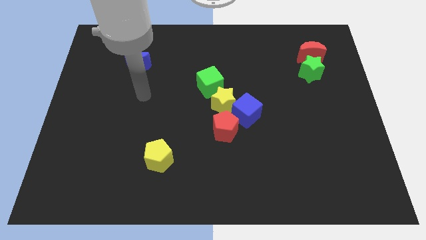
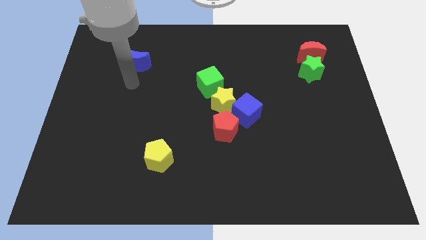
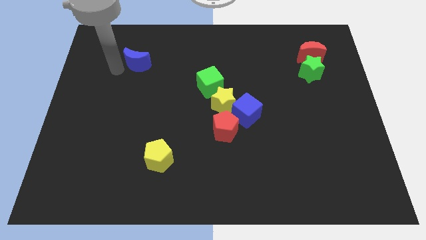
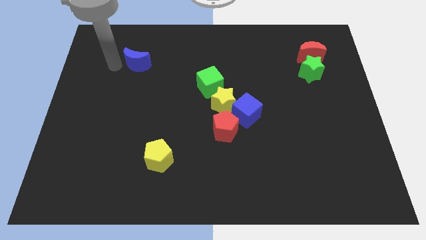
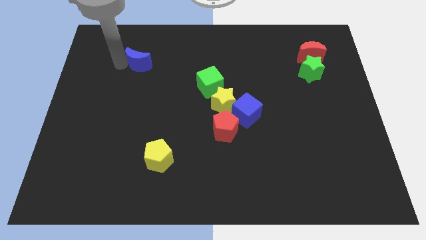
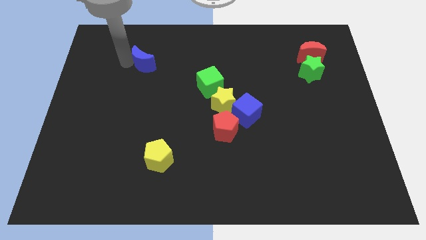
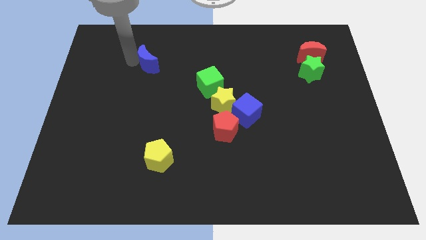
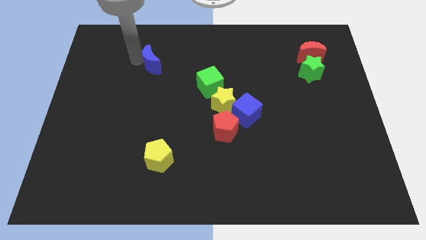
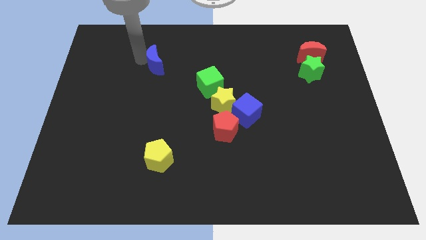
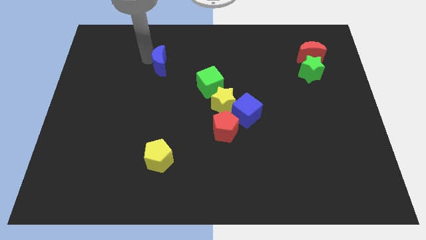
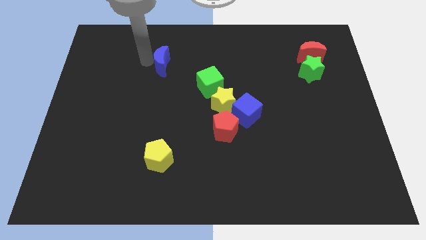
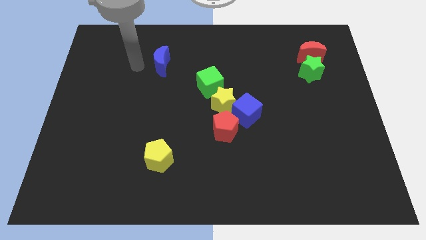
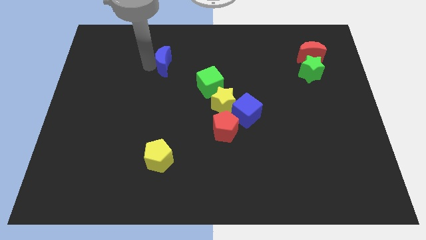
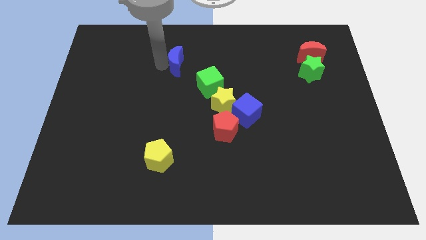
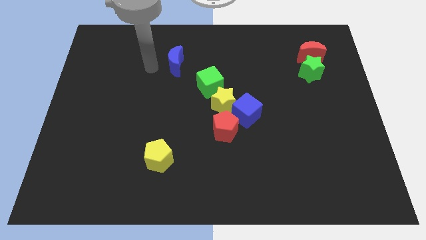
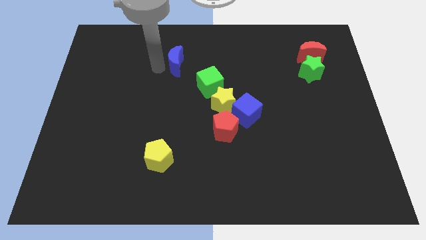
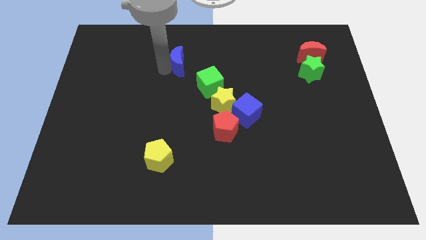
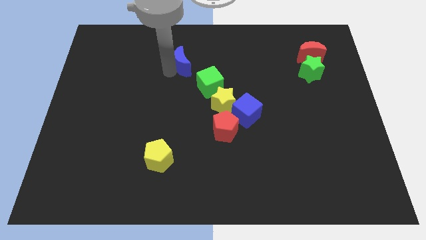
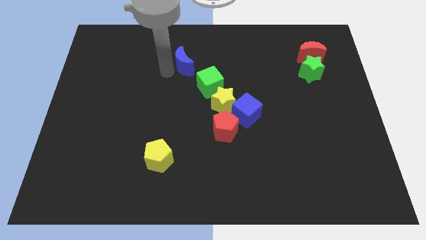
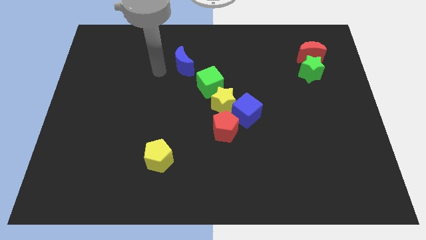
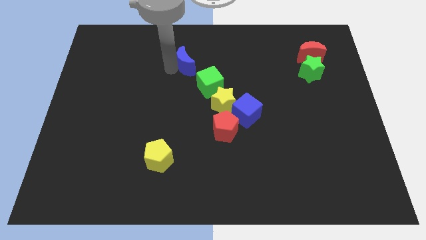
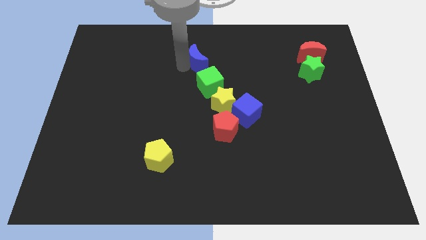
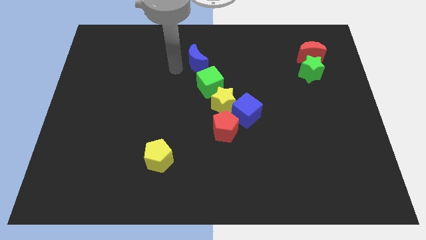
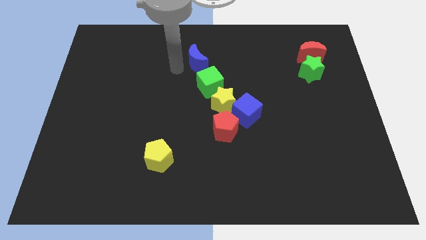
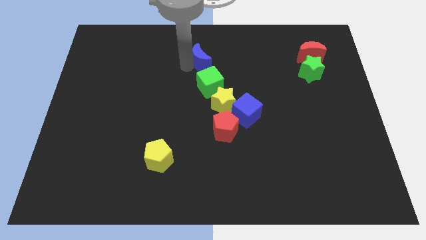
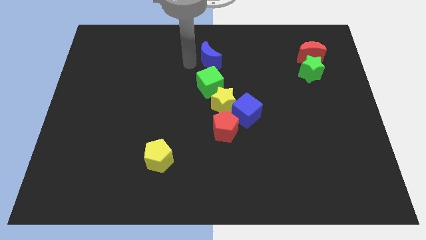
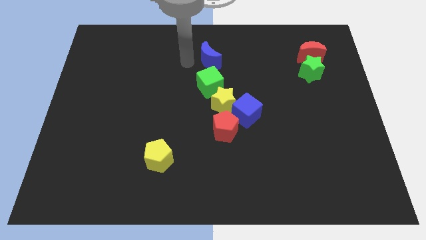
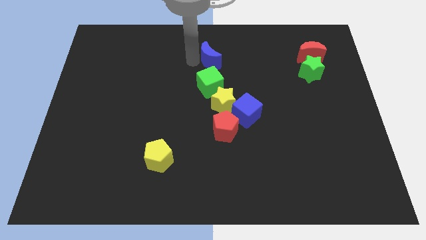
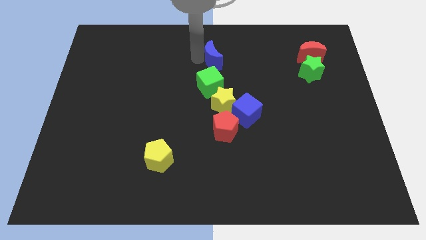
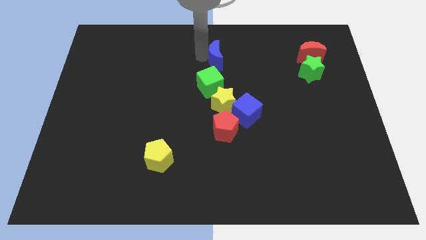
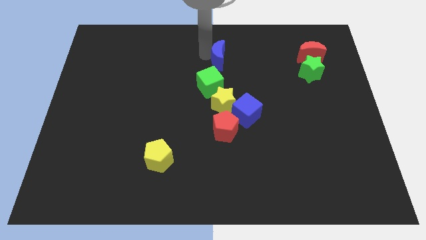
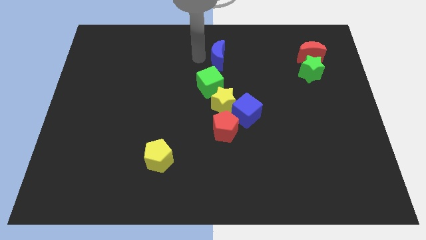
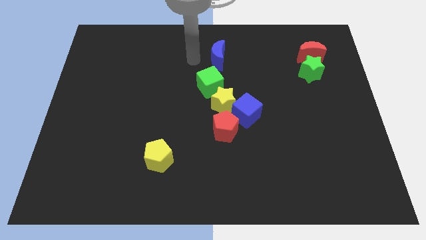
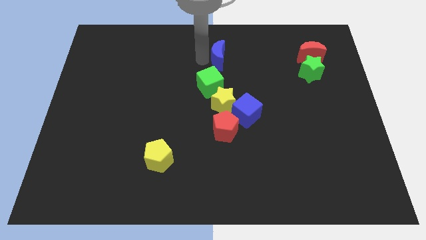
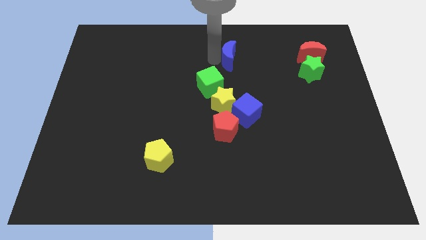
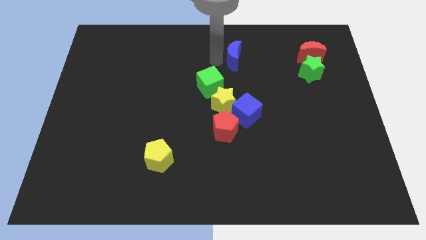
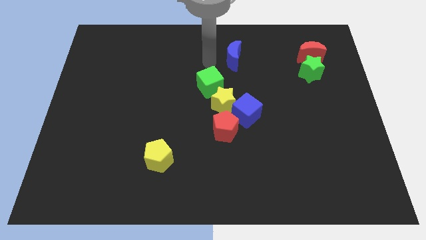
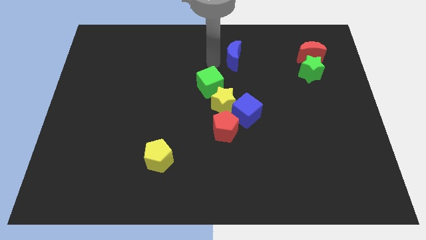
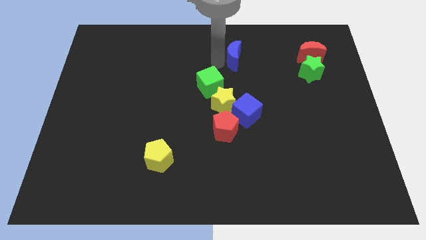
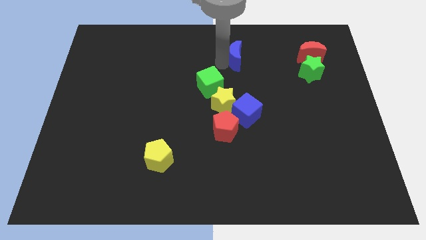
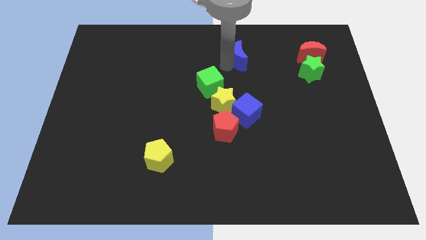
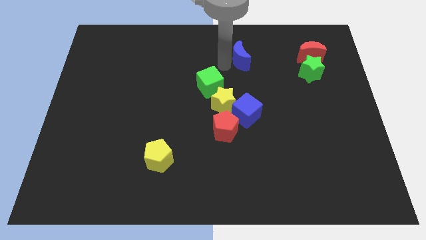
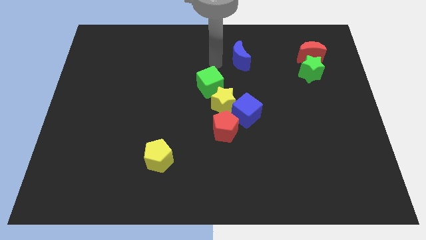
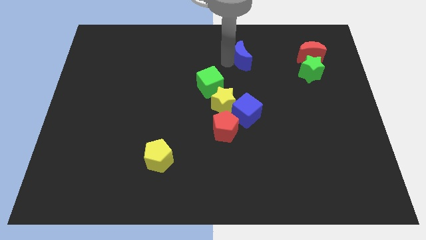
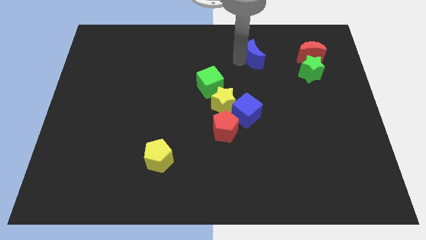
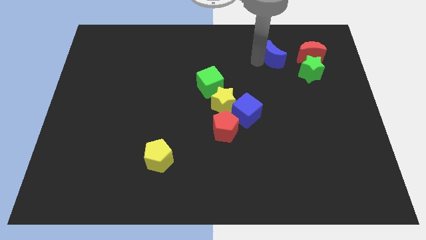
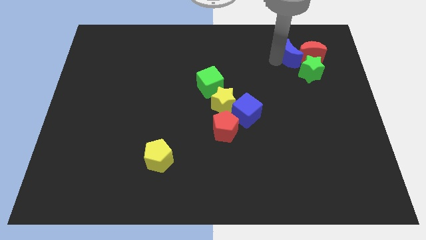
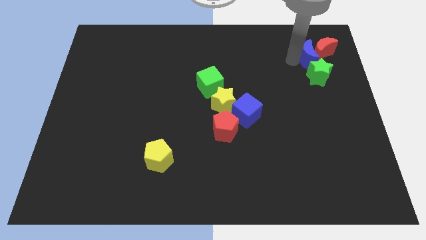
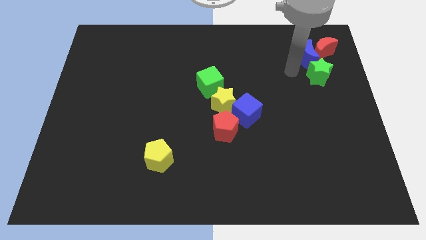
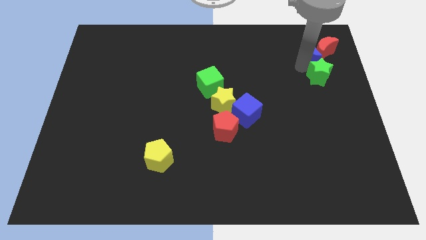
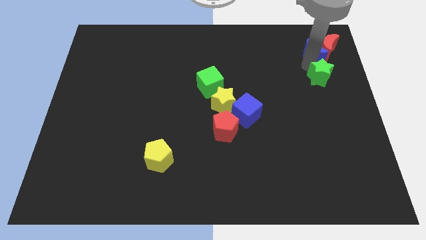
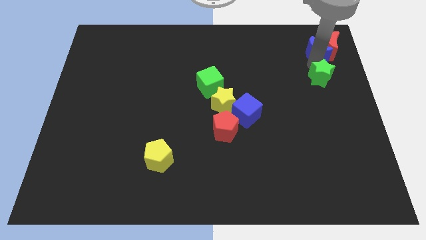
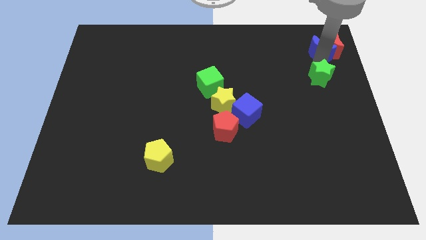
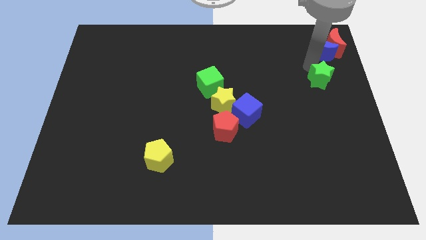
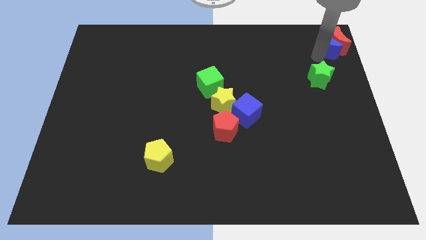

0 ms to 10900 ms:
move the blue moon to the top right of the board

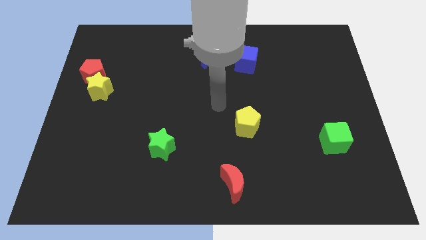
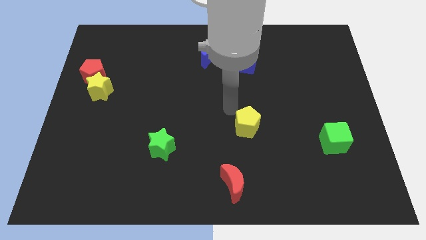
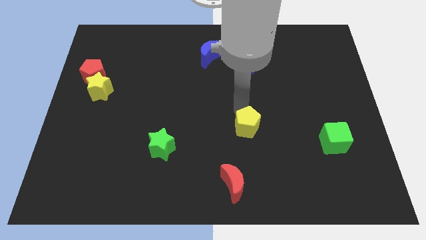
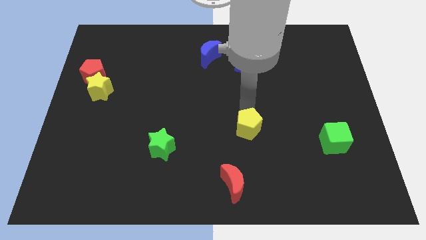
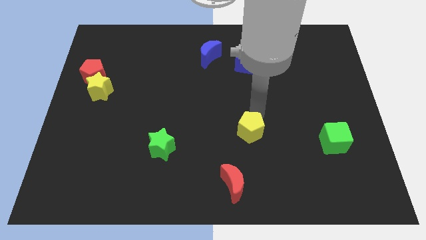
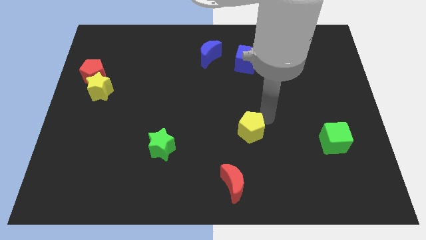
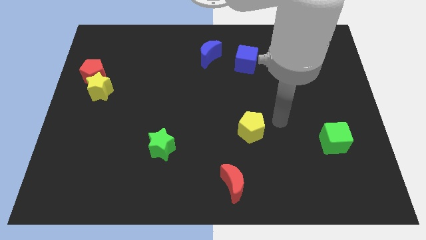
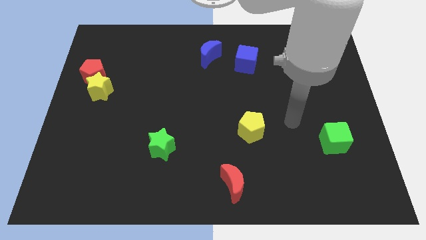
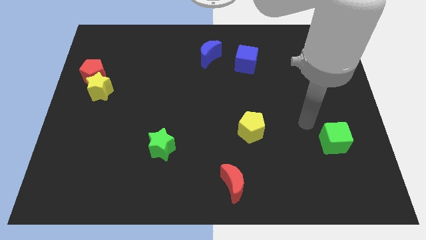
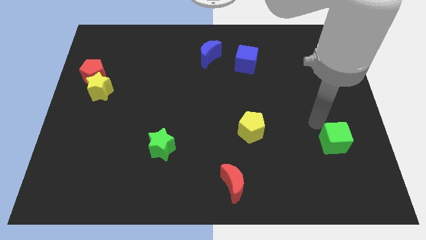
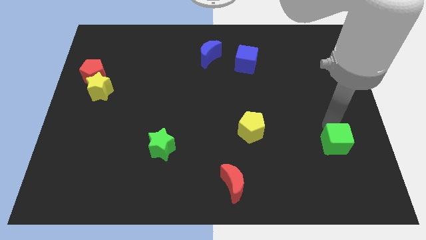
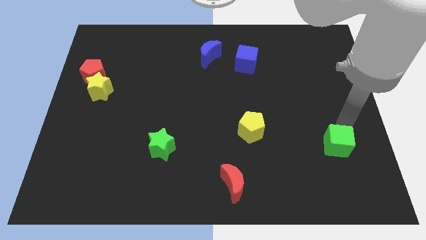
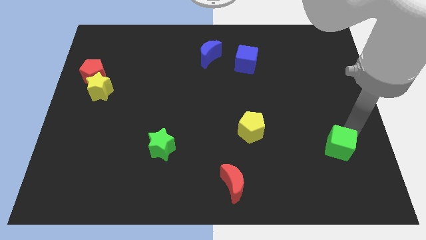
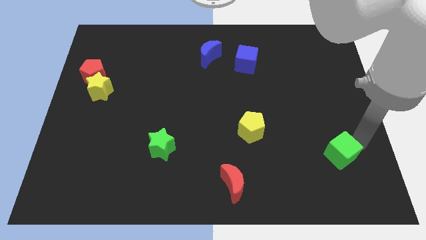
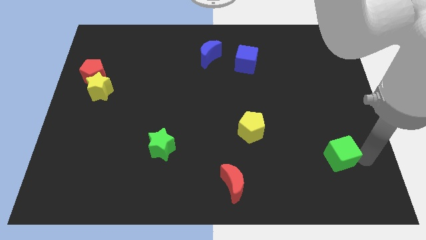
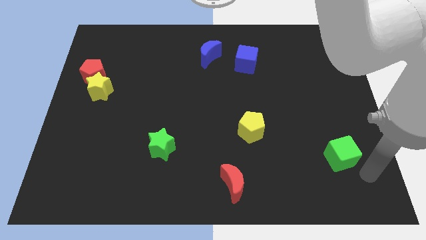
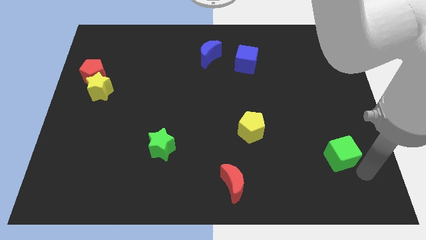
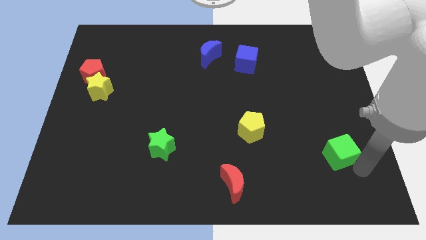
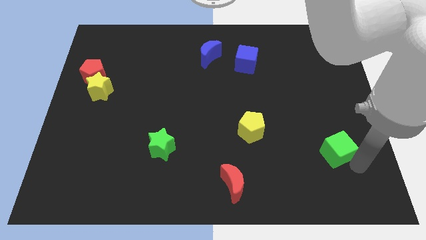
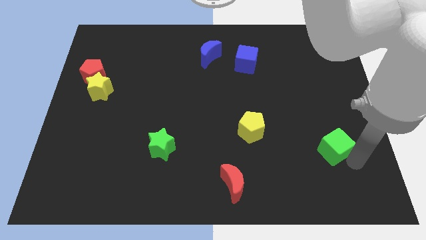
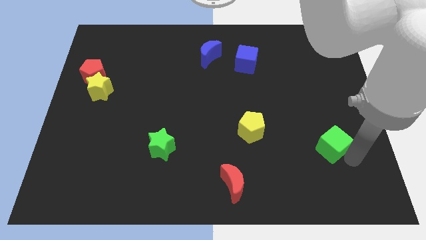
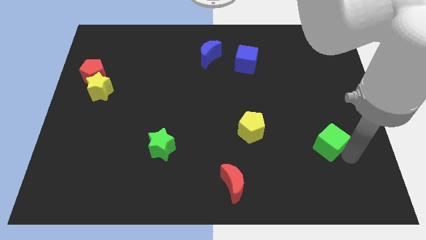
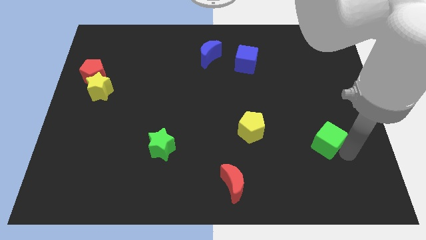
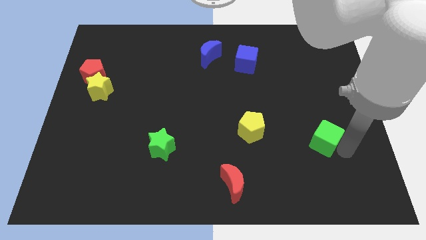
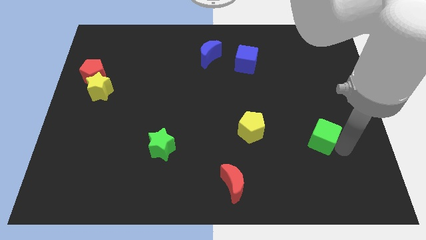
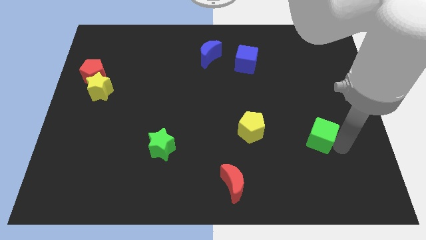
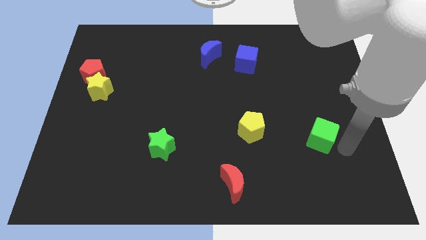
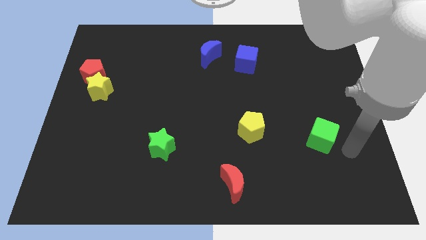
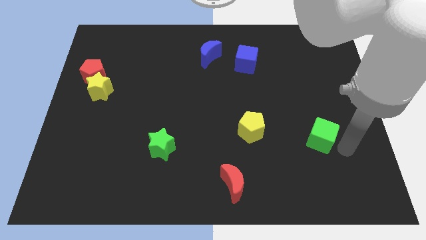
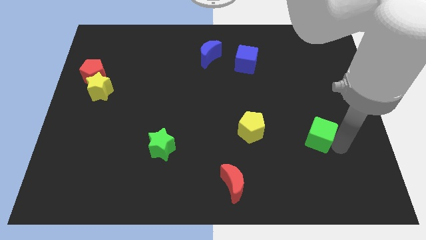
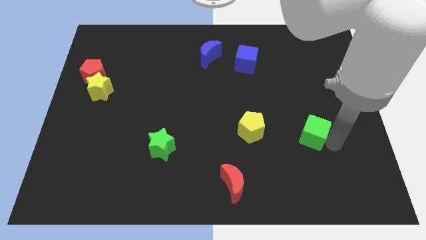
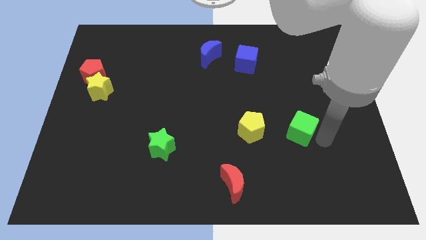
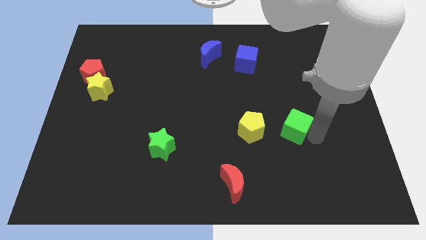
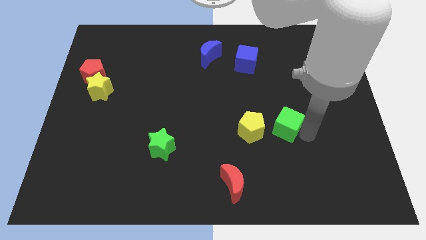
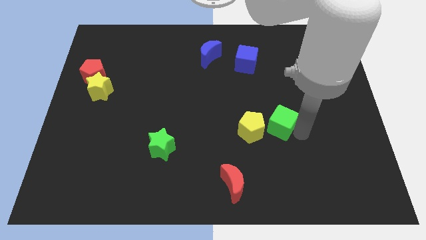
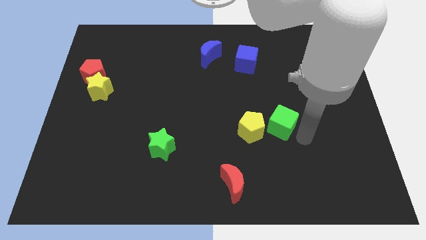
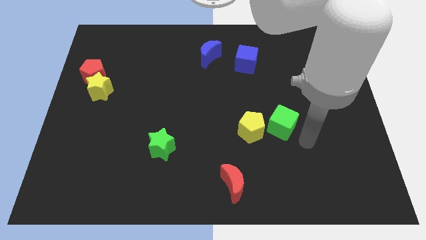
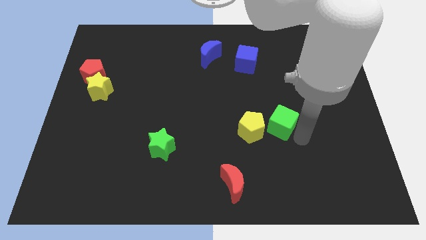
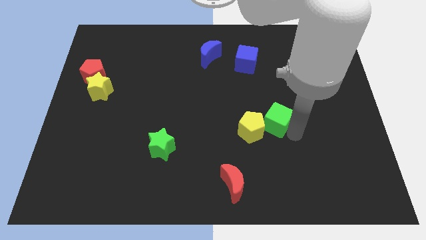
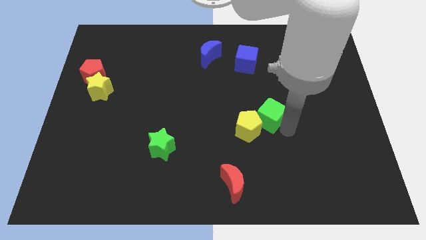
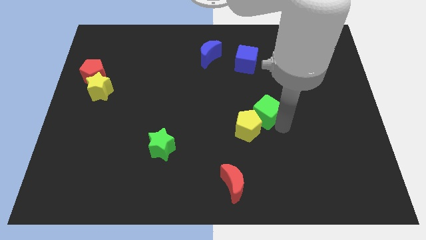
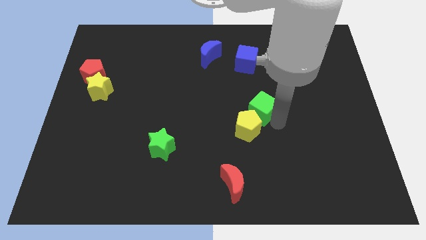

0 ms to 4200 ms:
put the green cube to the center
